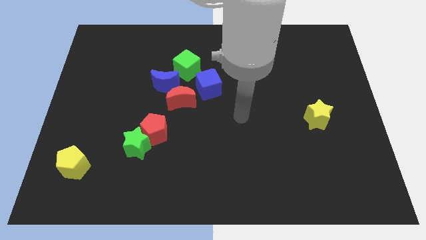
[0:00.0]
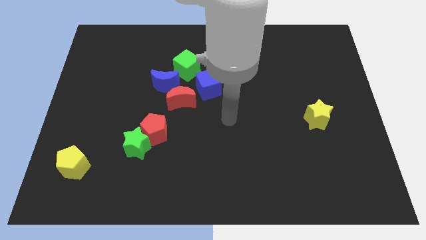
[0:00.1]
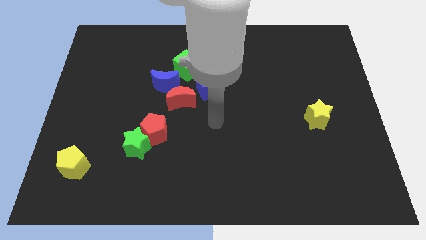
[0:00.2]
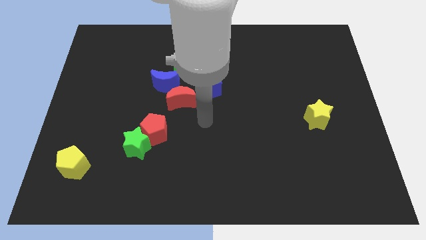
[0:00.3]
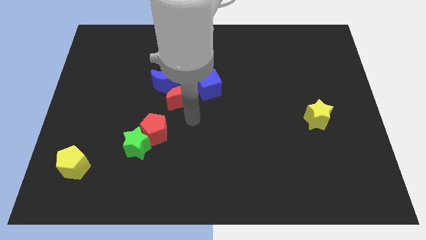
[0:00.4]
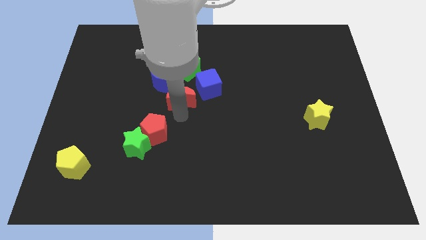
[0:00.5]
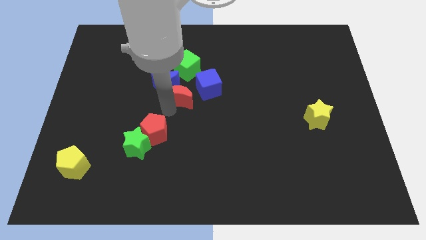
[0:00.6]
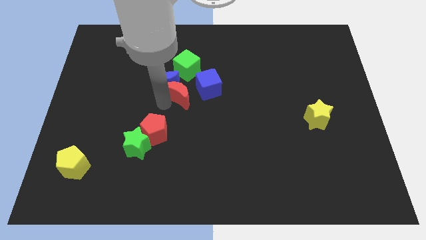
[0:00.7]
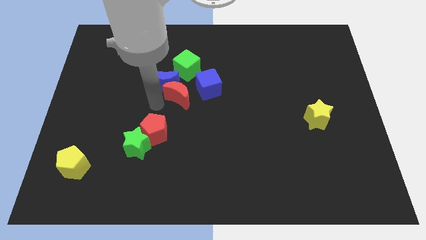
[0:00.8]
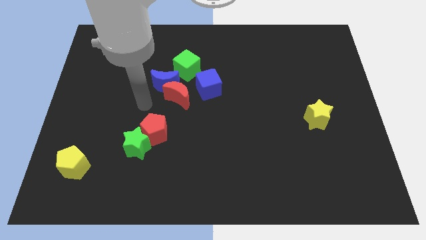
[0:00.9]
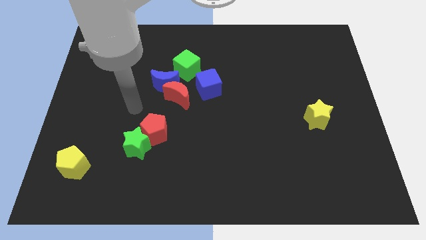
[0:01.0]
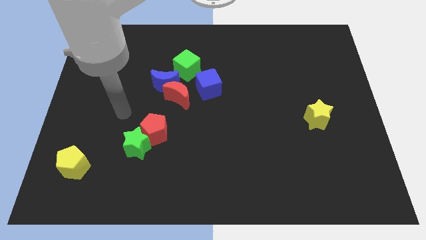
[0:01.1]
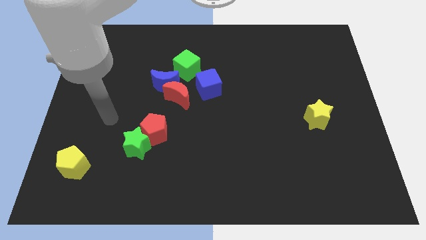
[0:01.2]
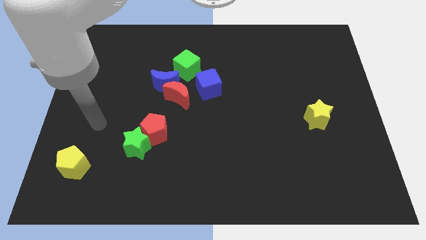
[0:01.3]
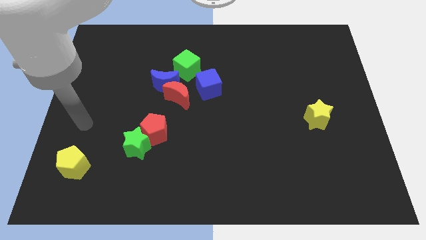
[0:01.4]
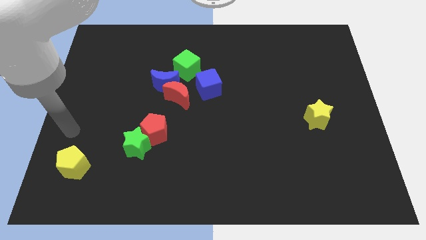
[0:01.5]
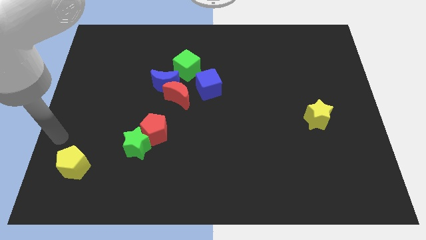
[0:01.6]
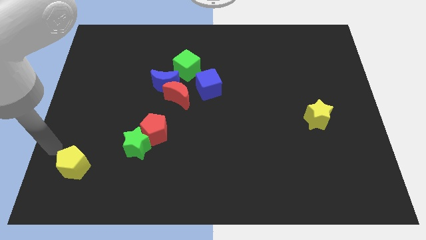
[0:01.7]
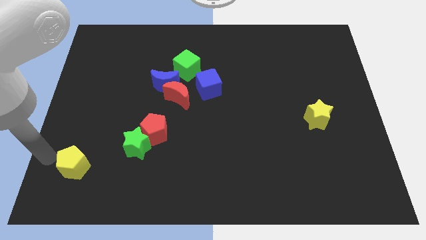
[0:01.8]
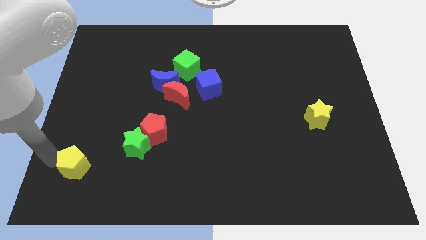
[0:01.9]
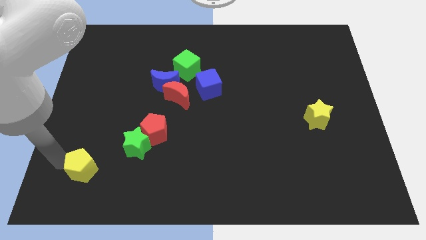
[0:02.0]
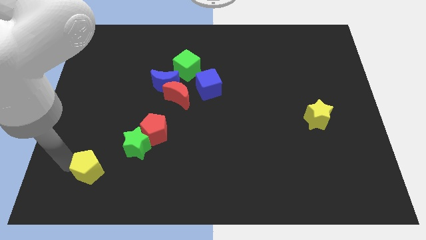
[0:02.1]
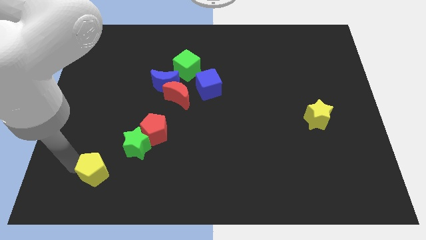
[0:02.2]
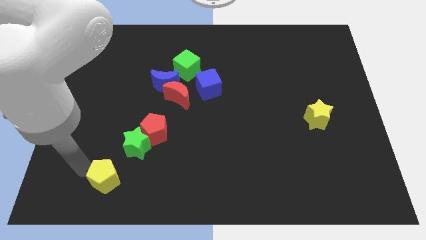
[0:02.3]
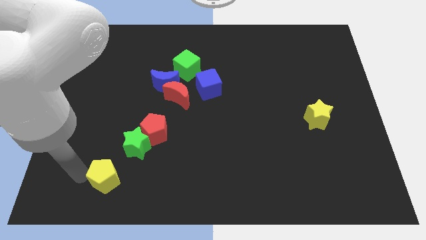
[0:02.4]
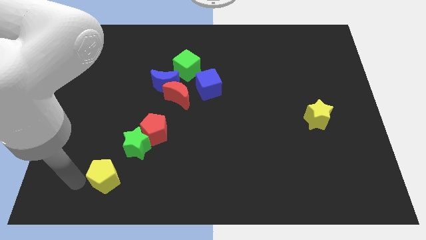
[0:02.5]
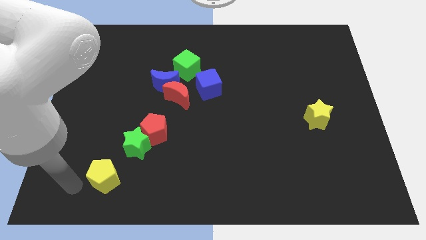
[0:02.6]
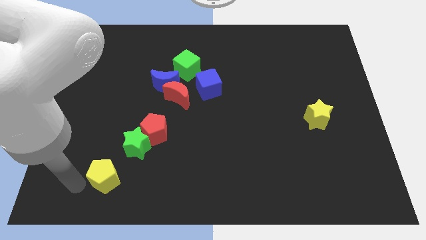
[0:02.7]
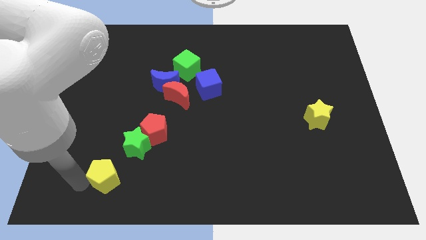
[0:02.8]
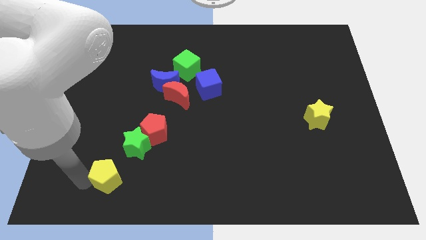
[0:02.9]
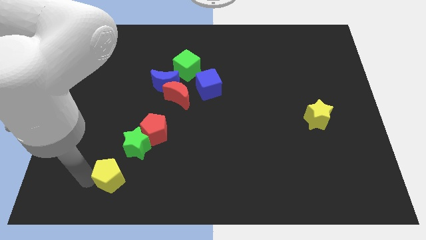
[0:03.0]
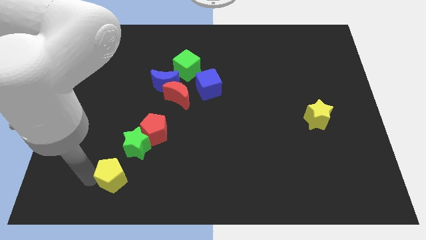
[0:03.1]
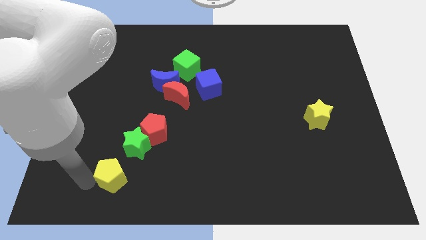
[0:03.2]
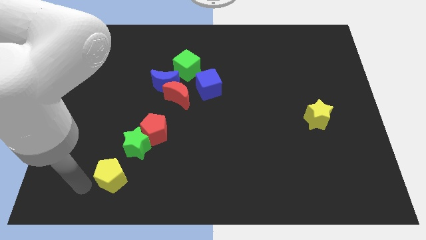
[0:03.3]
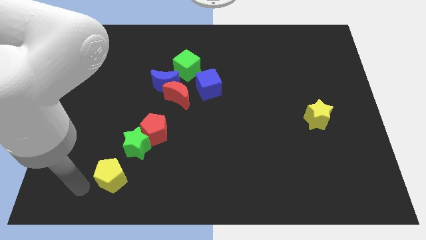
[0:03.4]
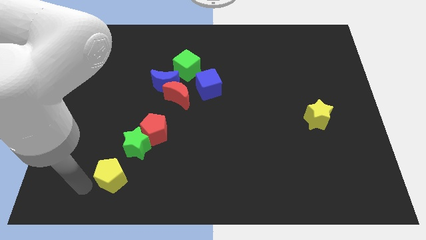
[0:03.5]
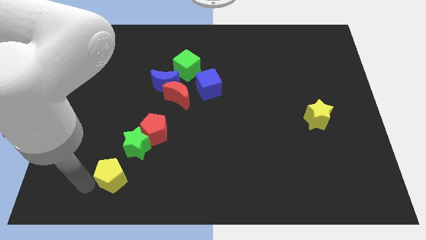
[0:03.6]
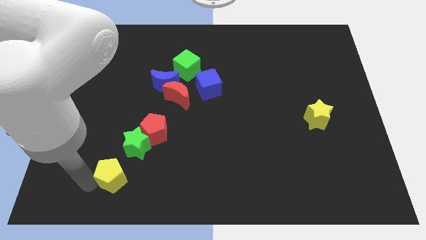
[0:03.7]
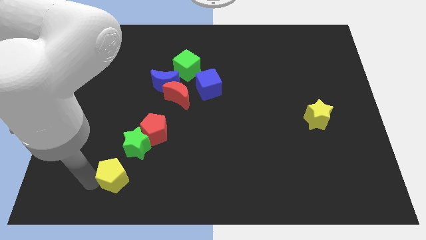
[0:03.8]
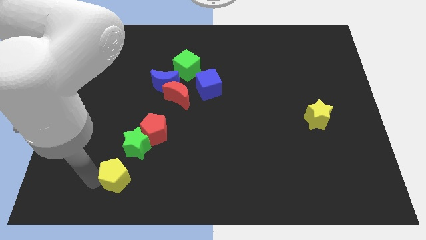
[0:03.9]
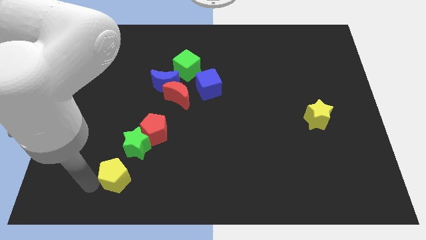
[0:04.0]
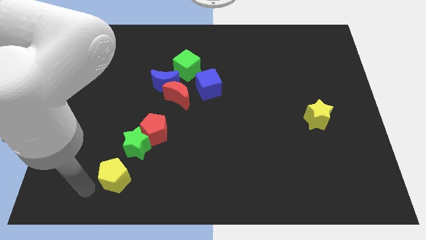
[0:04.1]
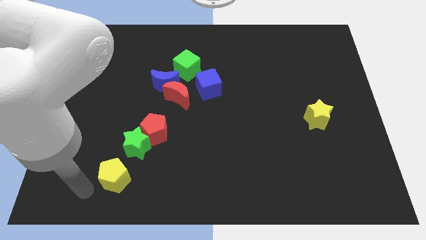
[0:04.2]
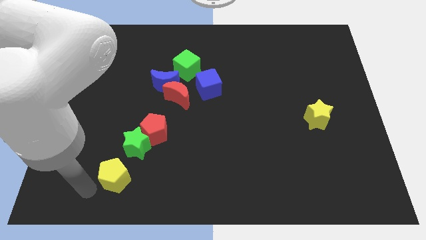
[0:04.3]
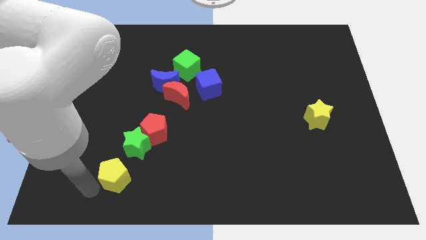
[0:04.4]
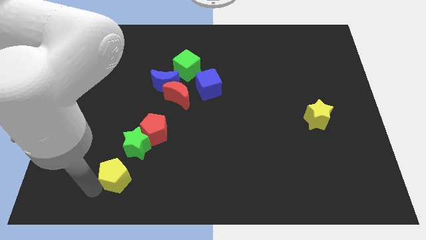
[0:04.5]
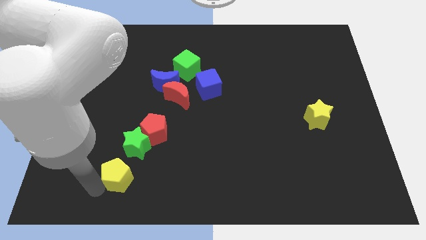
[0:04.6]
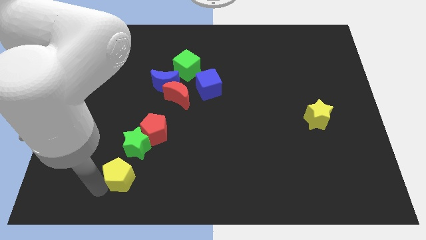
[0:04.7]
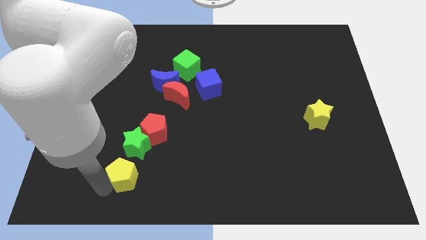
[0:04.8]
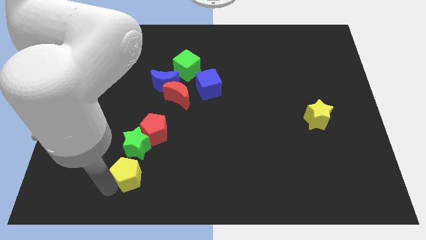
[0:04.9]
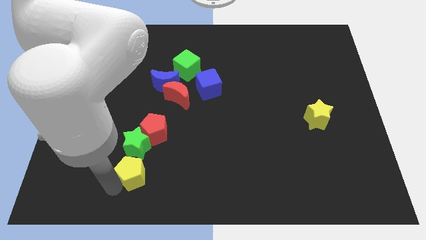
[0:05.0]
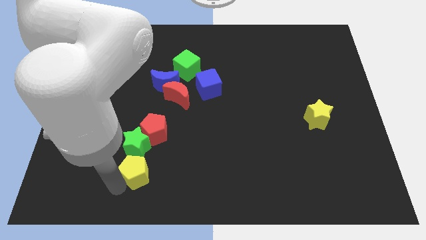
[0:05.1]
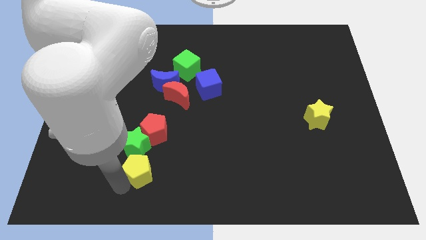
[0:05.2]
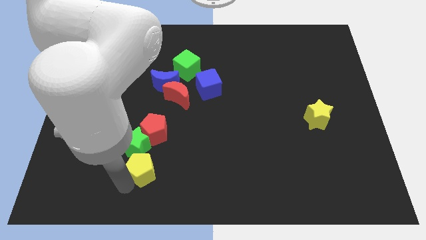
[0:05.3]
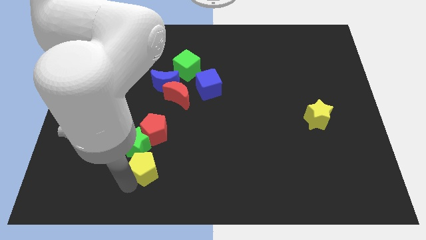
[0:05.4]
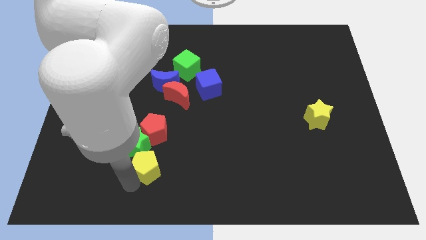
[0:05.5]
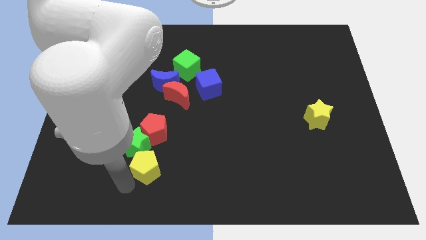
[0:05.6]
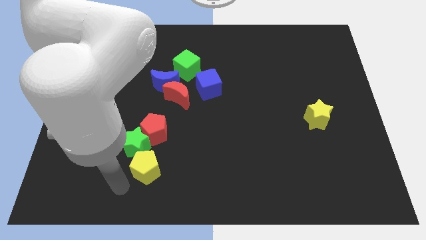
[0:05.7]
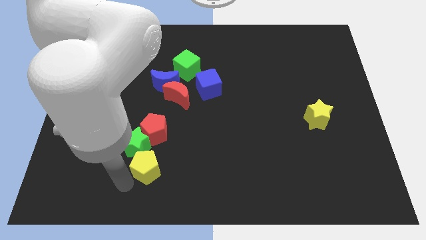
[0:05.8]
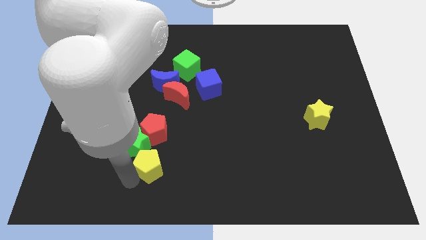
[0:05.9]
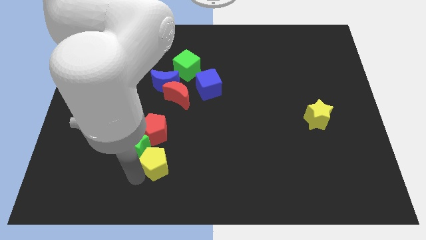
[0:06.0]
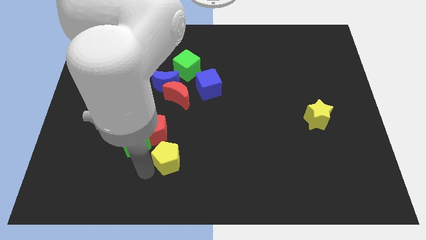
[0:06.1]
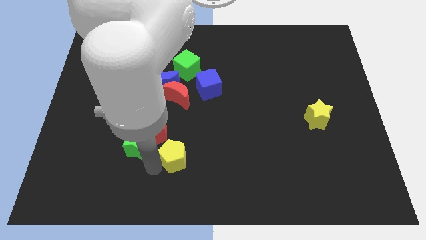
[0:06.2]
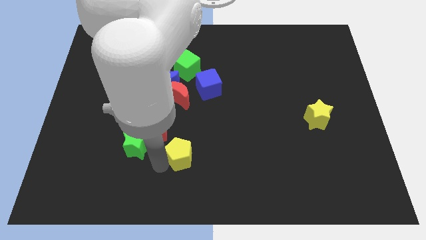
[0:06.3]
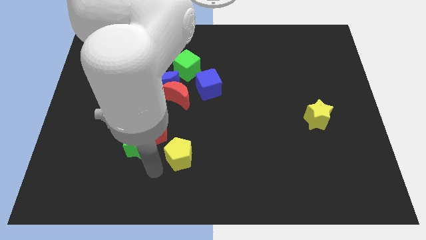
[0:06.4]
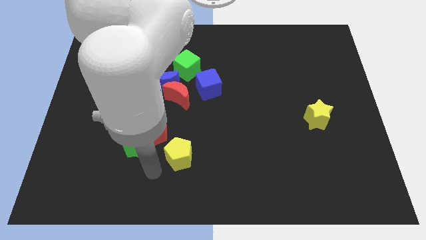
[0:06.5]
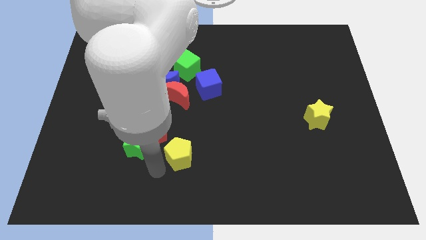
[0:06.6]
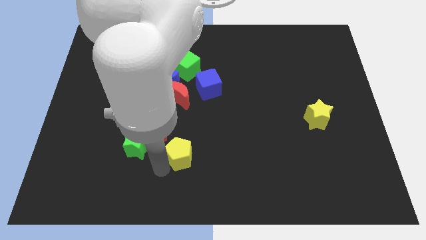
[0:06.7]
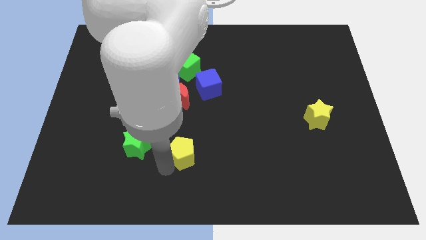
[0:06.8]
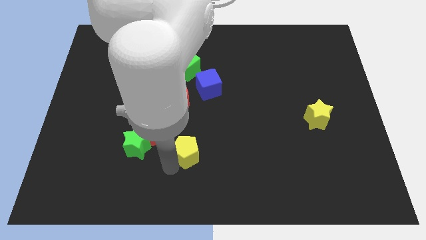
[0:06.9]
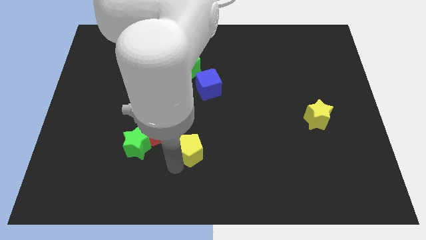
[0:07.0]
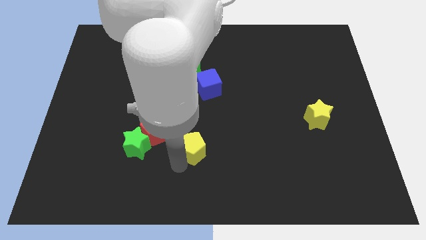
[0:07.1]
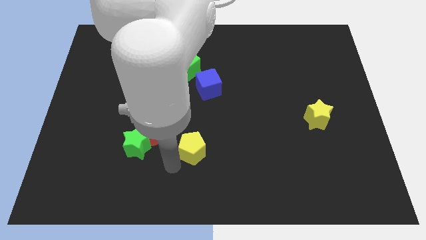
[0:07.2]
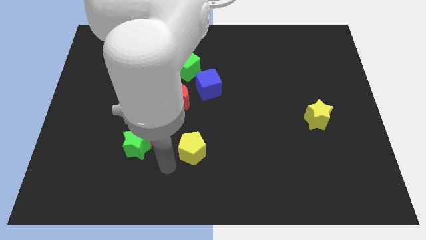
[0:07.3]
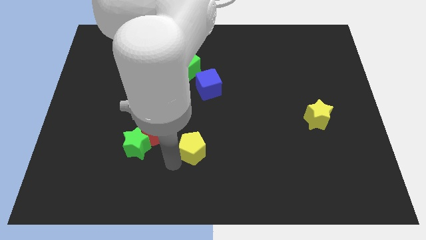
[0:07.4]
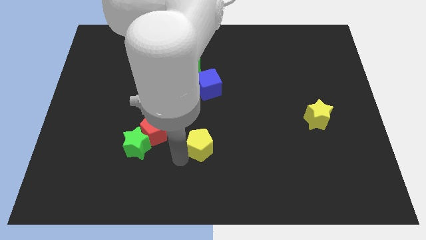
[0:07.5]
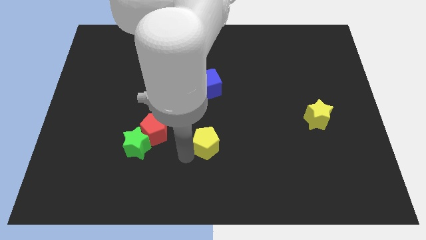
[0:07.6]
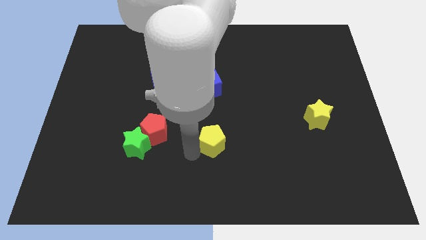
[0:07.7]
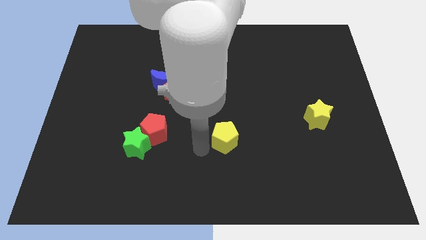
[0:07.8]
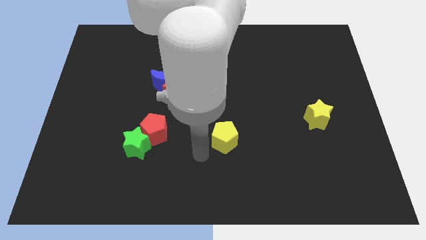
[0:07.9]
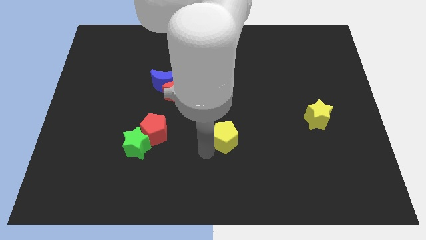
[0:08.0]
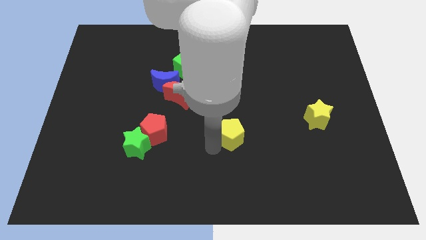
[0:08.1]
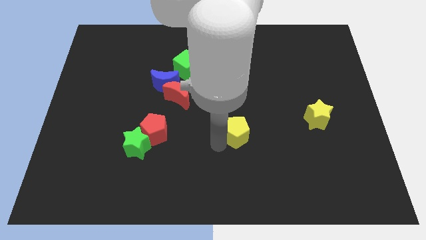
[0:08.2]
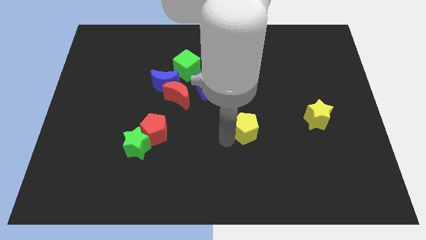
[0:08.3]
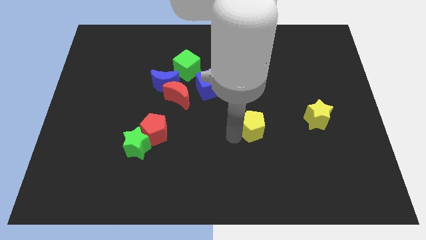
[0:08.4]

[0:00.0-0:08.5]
push the yellow pentagon to the left of the yellow star
